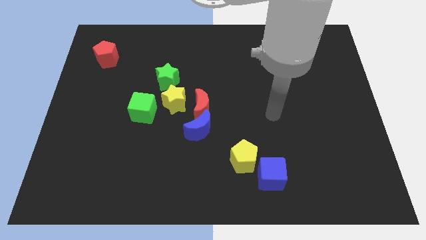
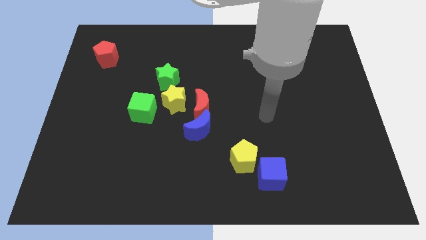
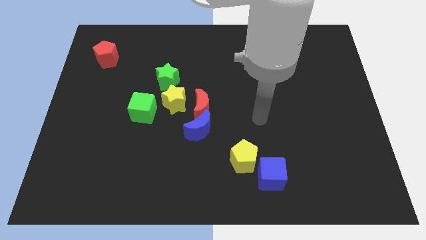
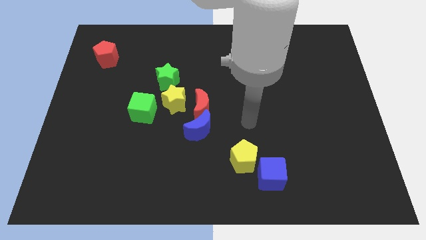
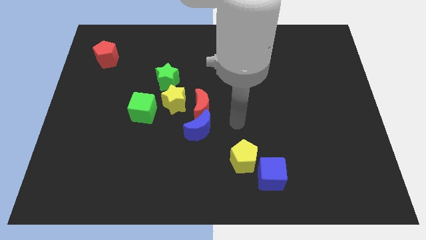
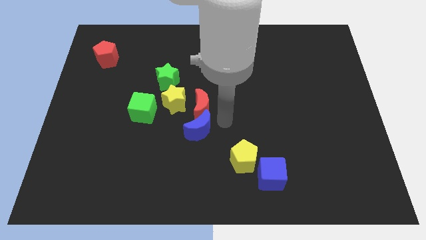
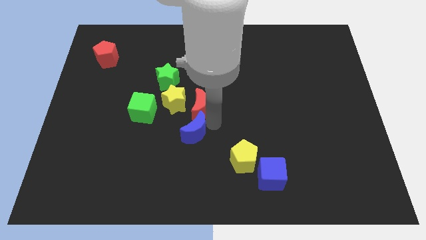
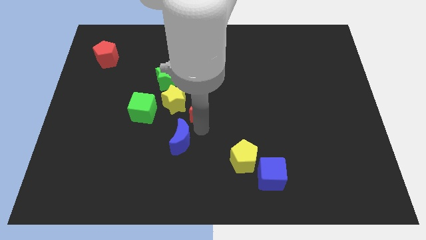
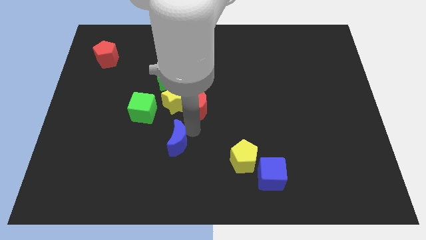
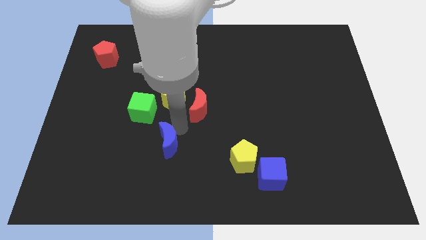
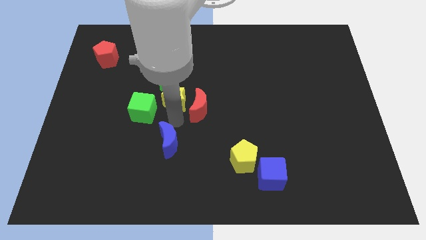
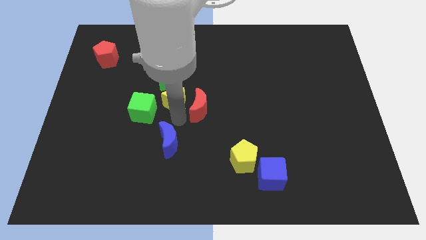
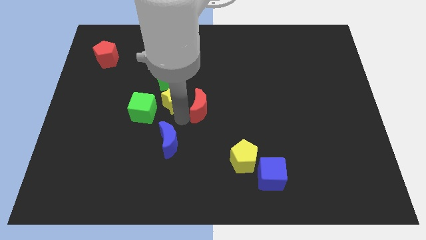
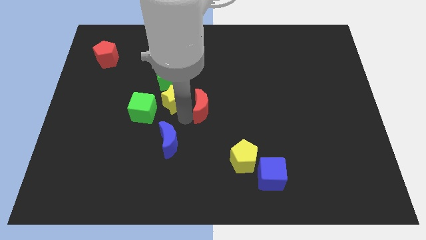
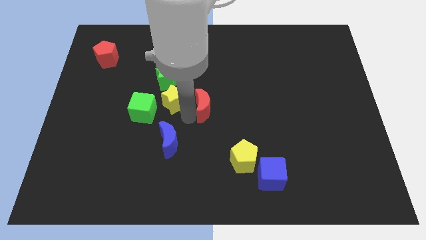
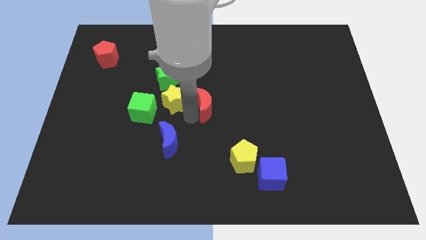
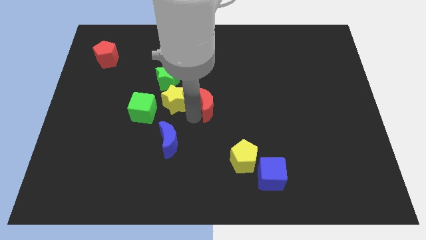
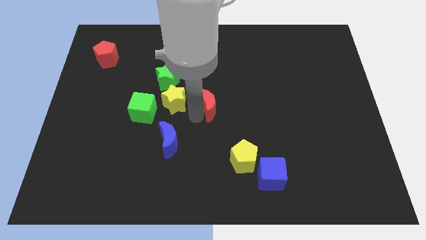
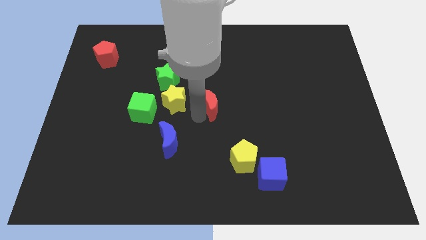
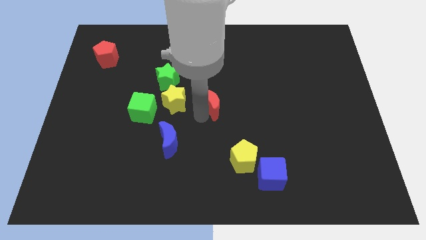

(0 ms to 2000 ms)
move the red moon away from the blue moon and yellow star

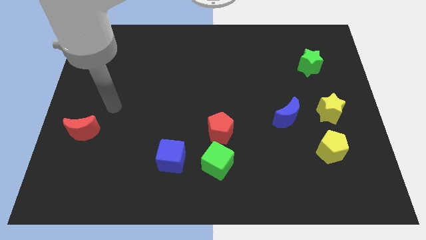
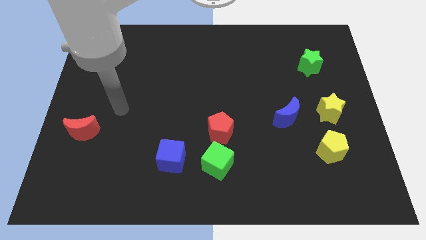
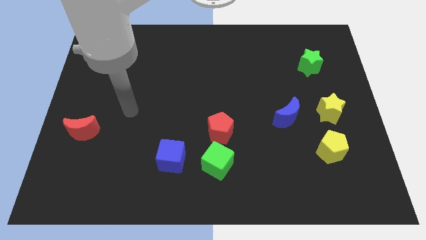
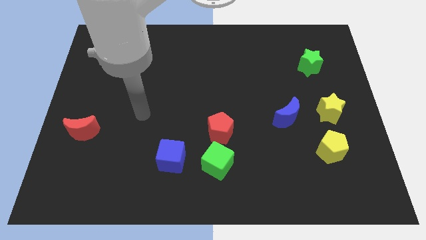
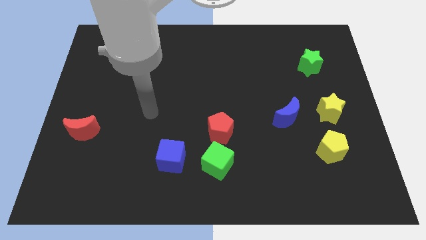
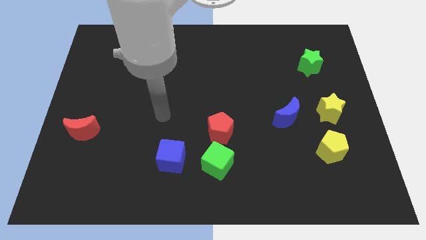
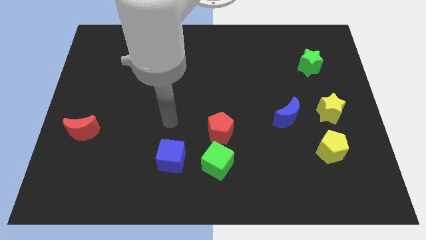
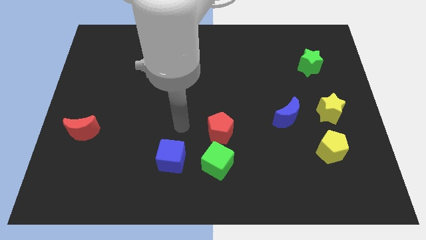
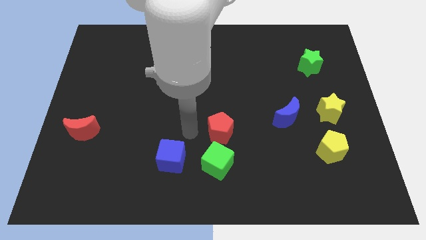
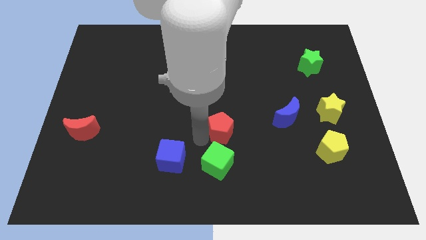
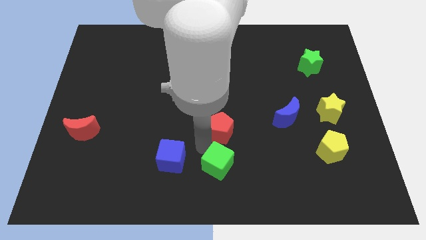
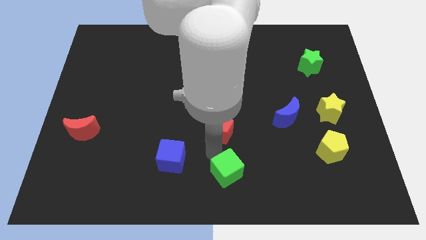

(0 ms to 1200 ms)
separate the red pentagon from the green cube

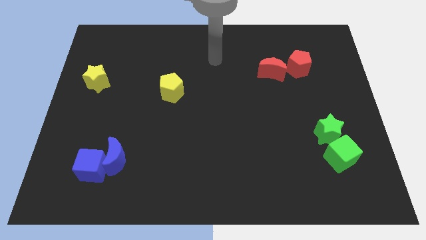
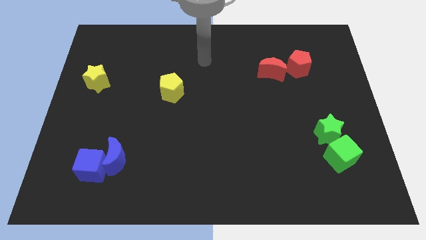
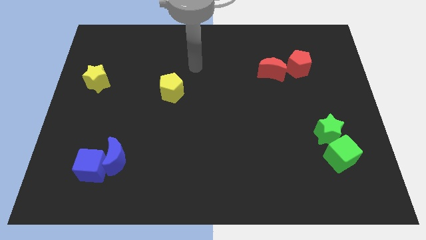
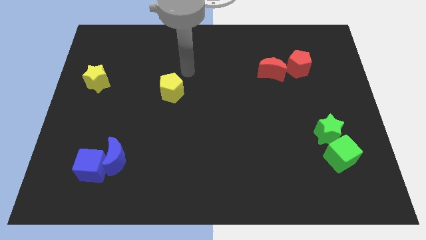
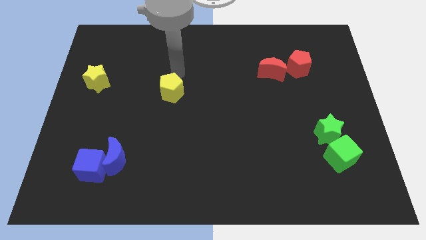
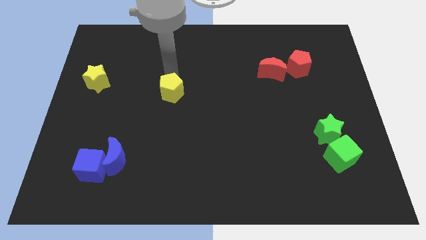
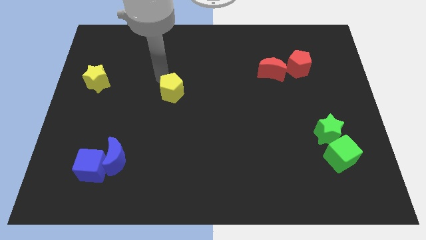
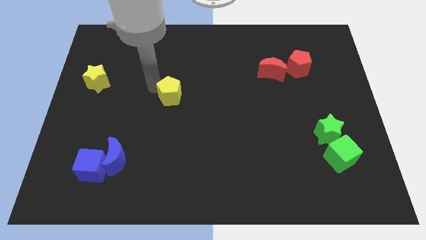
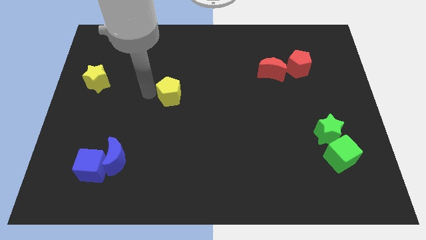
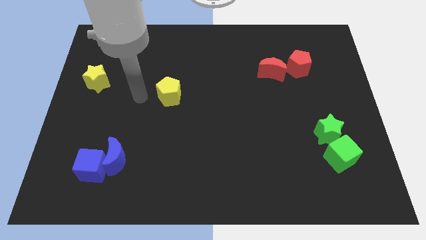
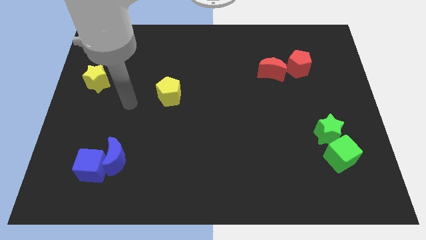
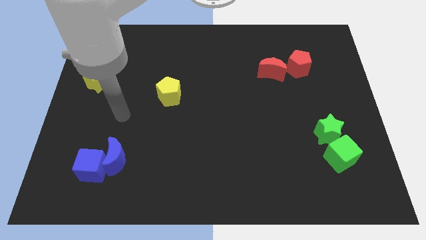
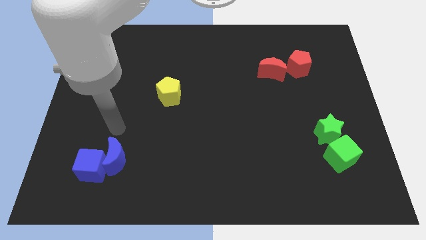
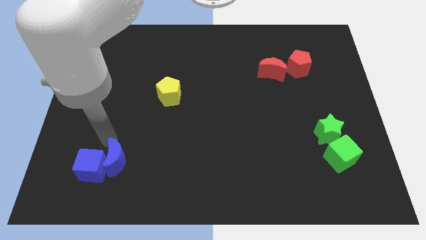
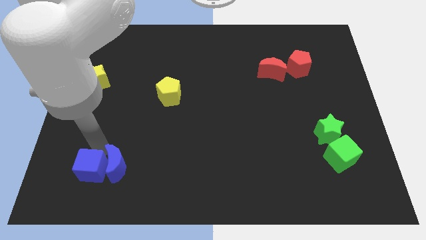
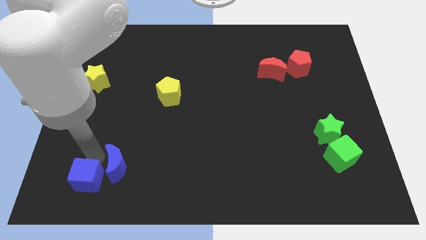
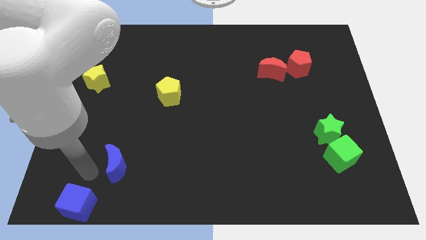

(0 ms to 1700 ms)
pull the blue moon apart from the blue cube

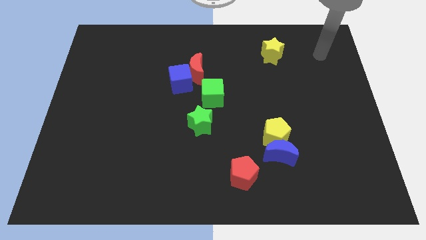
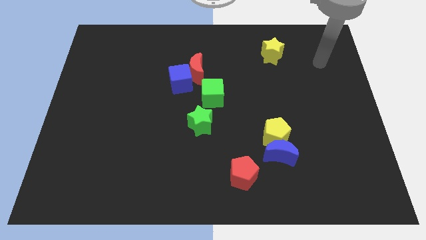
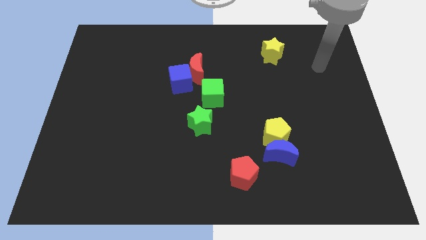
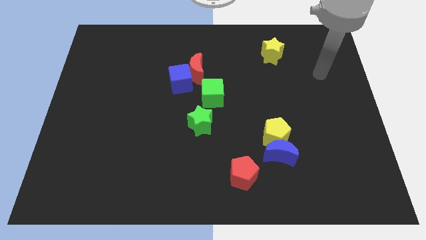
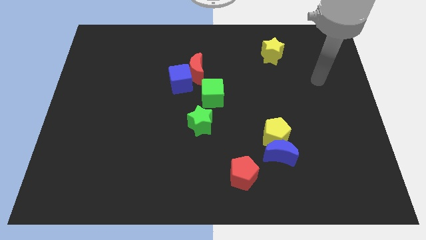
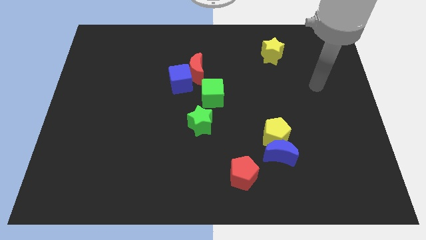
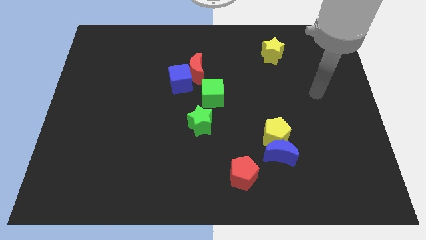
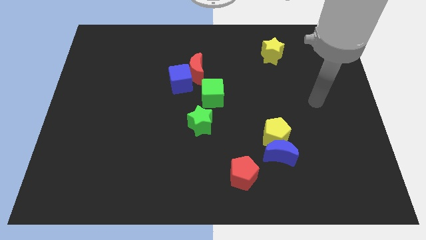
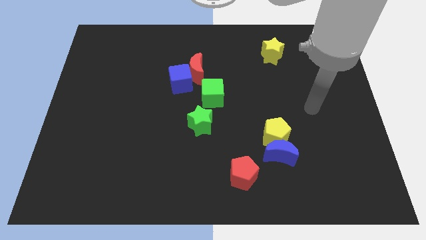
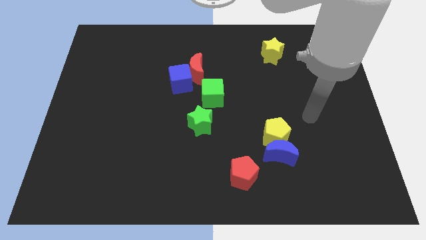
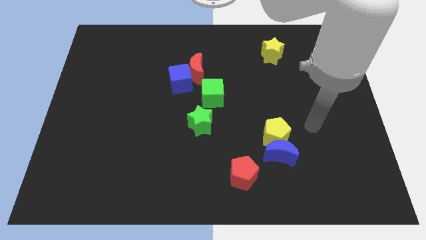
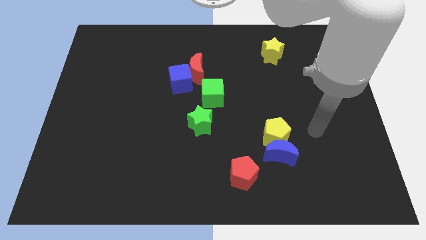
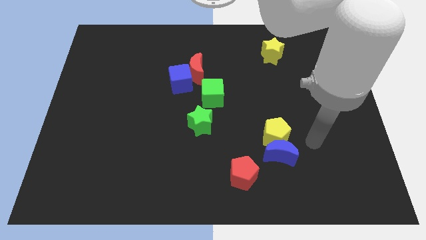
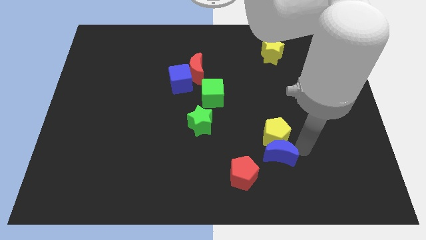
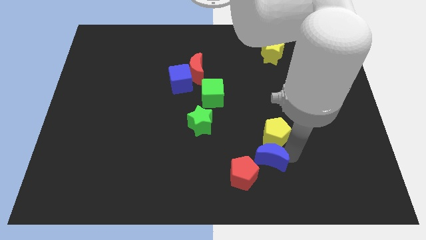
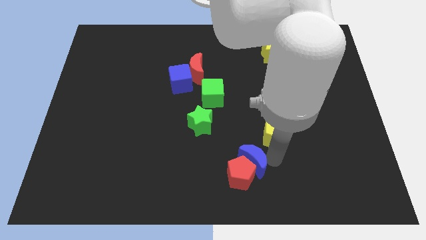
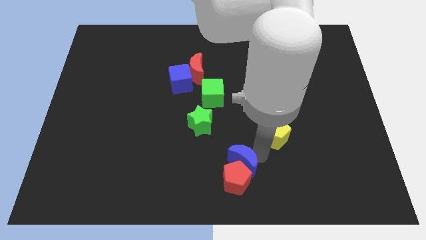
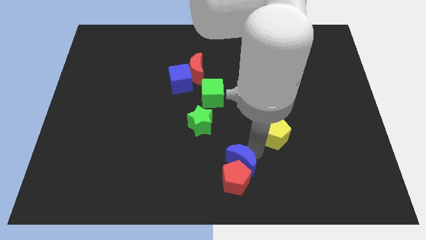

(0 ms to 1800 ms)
pull the yellow pentagon apart from the blue moon

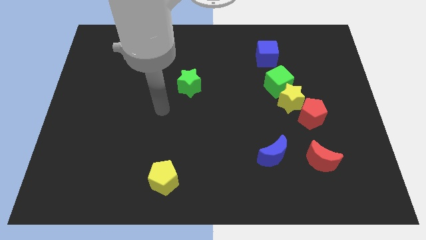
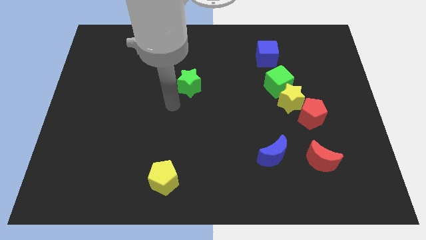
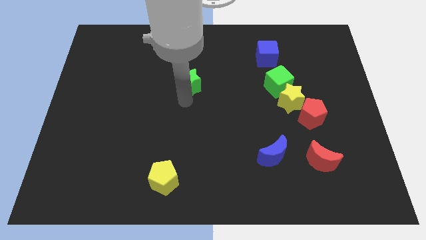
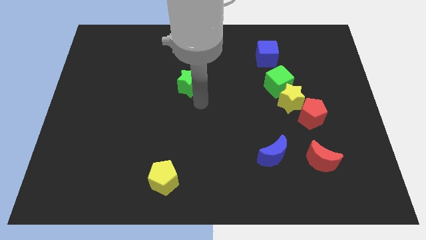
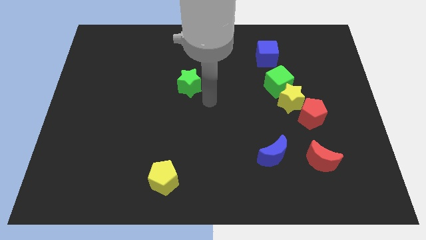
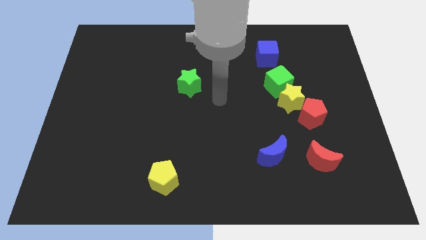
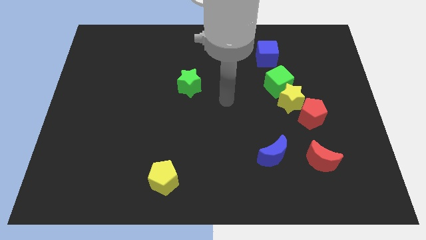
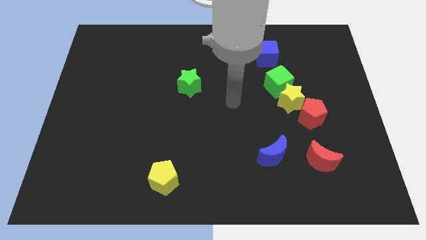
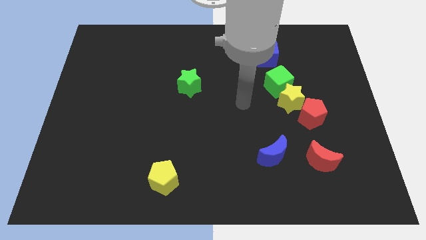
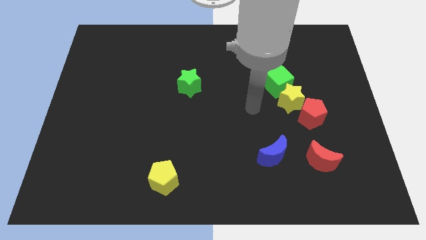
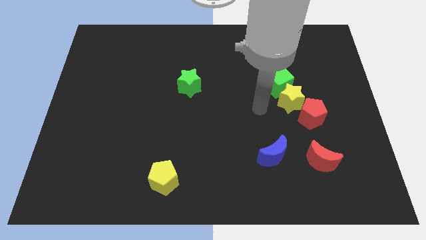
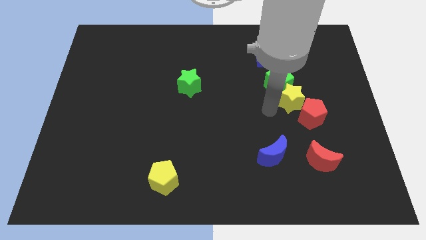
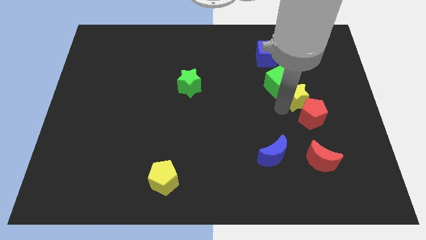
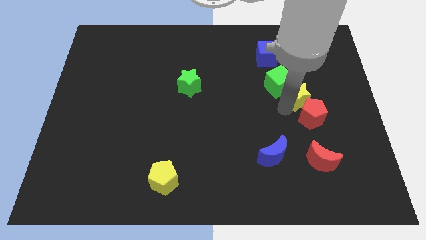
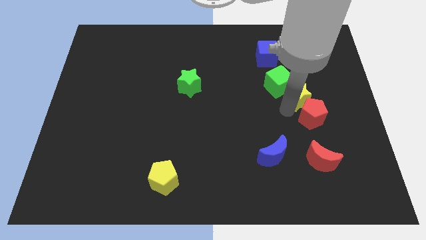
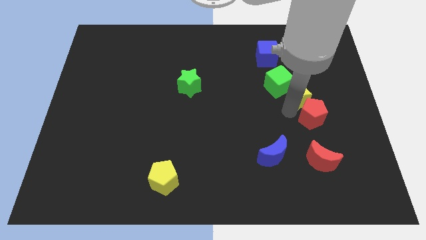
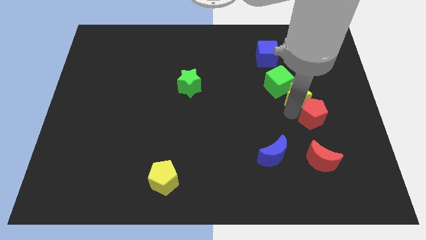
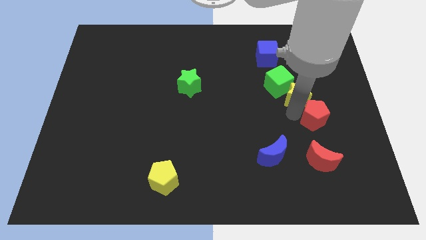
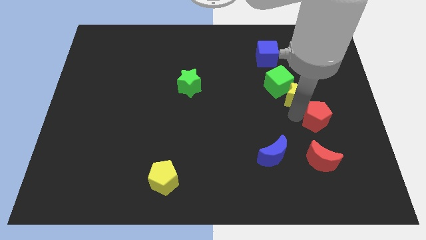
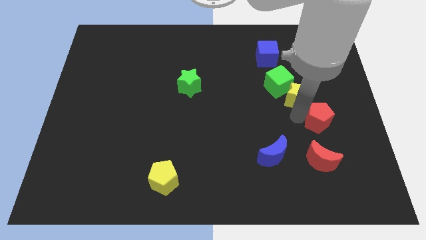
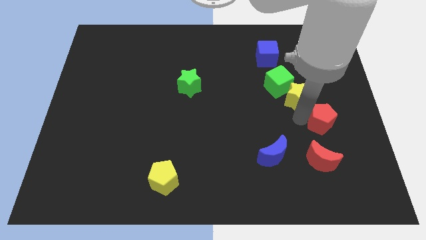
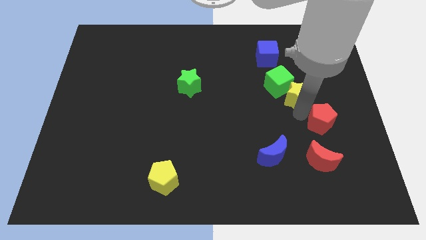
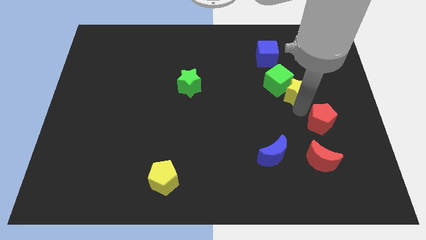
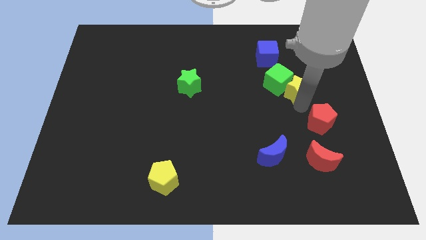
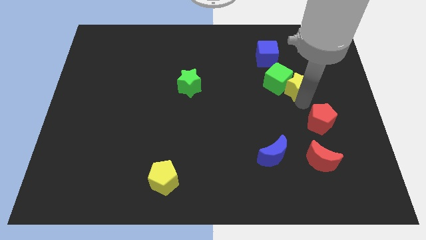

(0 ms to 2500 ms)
pull the red pentagon apart from the yellow star
